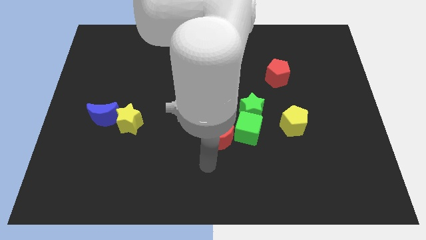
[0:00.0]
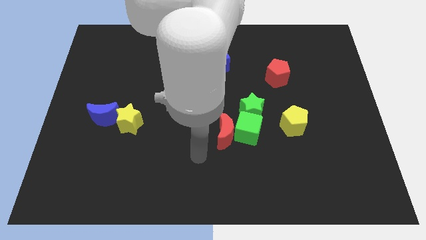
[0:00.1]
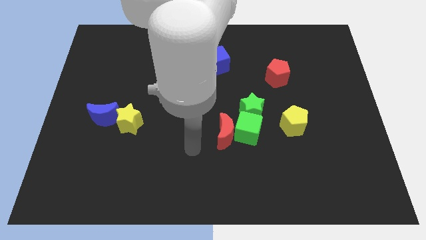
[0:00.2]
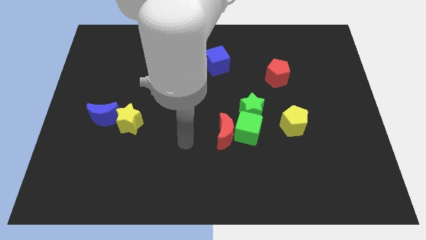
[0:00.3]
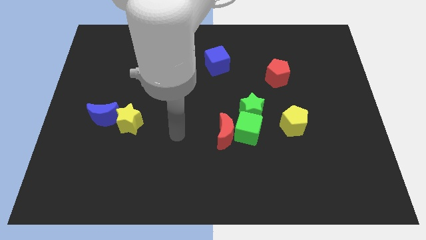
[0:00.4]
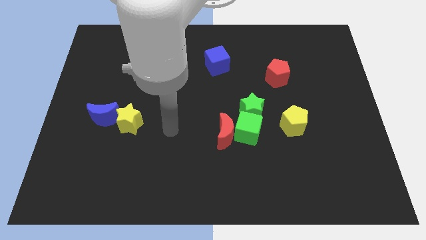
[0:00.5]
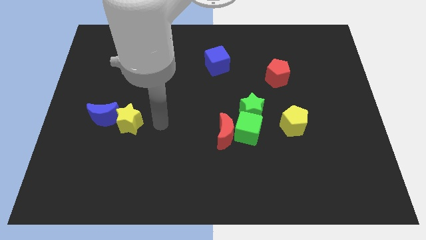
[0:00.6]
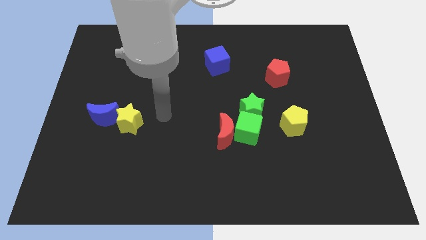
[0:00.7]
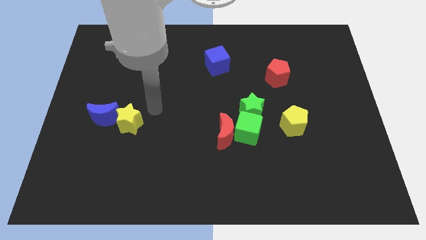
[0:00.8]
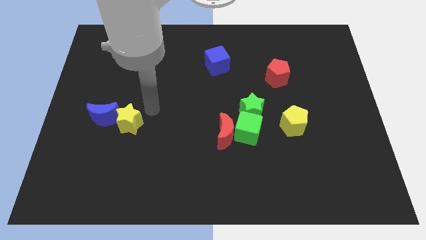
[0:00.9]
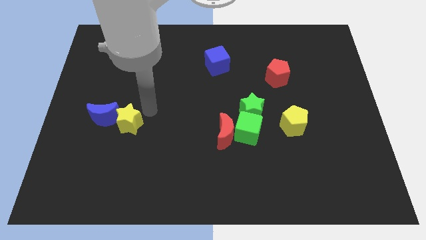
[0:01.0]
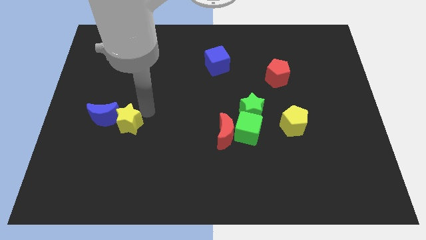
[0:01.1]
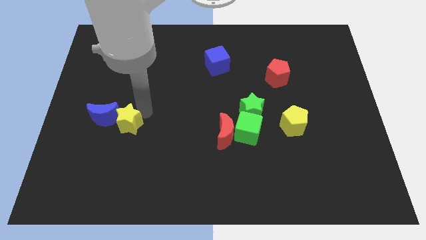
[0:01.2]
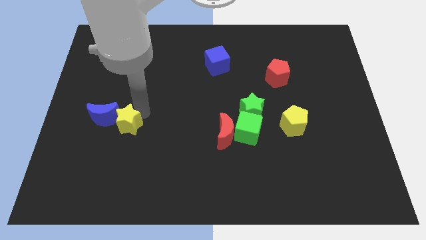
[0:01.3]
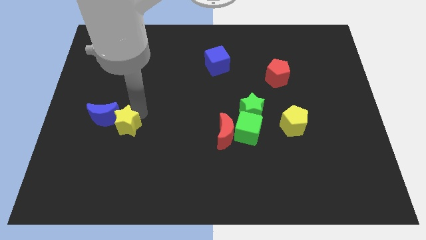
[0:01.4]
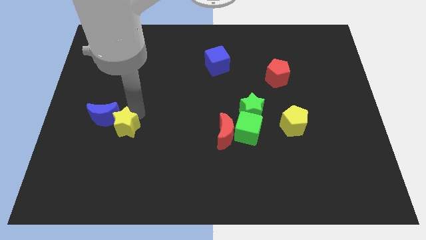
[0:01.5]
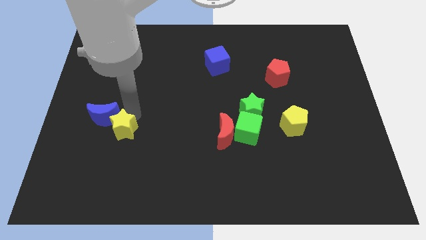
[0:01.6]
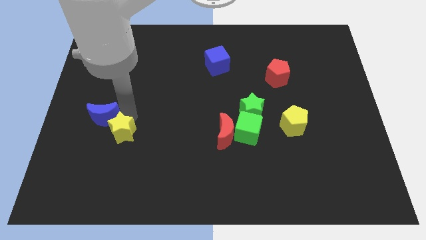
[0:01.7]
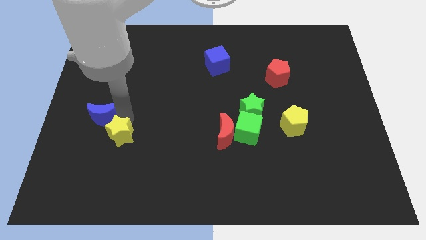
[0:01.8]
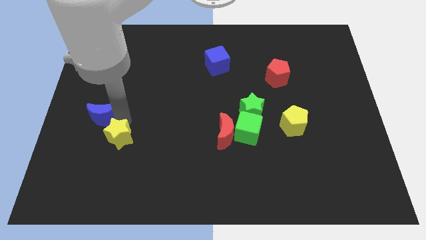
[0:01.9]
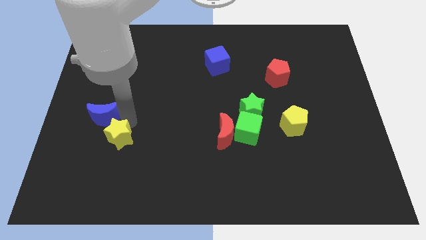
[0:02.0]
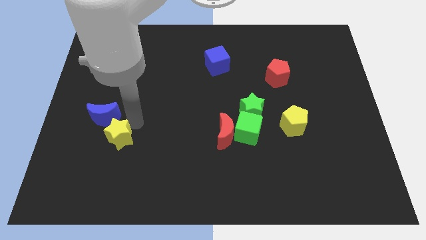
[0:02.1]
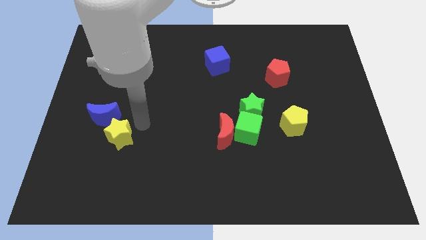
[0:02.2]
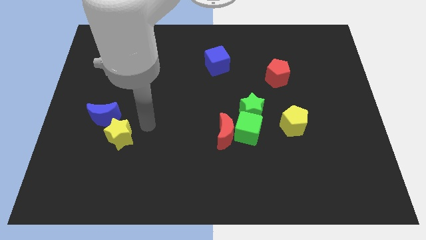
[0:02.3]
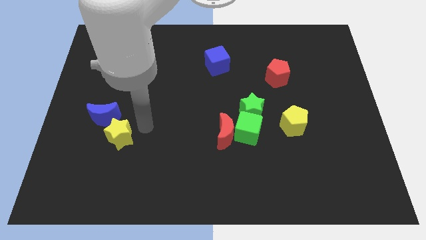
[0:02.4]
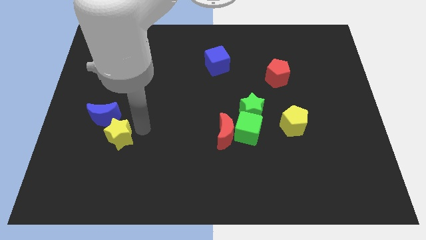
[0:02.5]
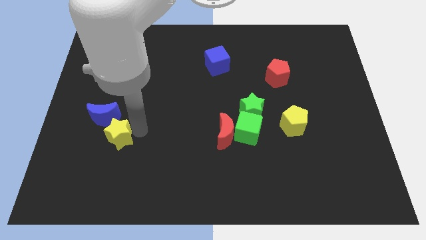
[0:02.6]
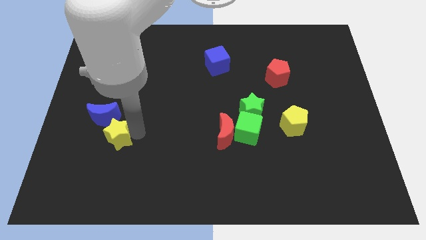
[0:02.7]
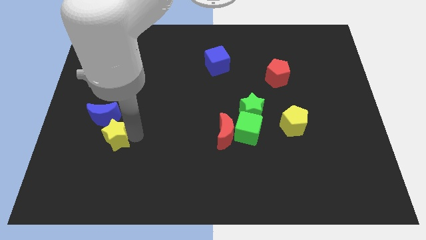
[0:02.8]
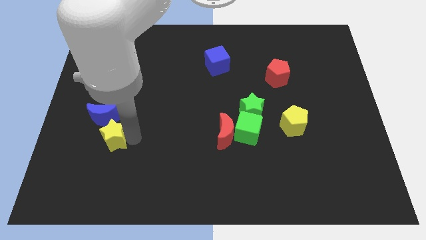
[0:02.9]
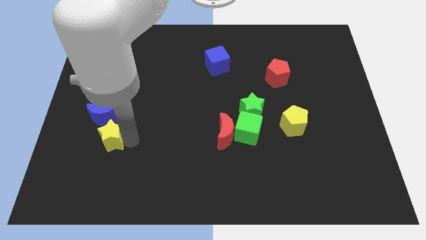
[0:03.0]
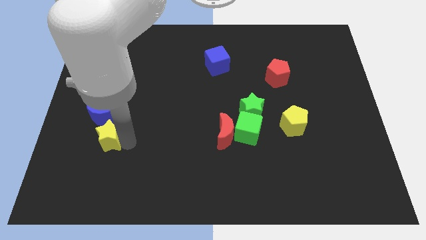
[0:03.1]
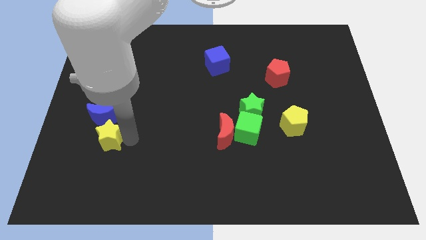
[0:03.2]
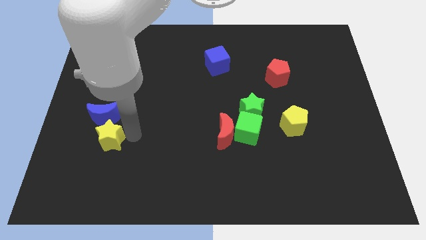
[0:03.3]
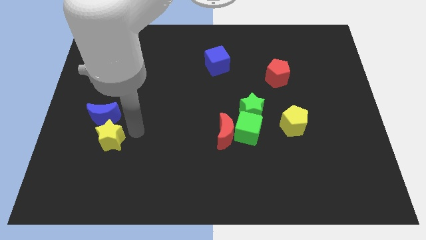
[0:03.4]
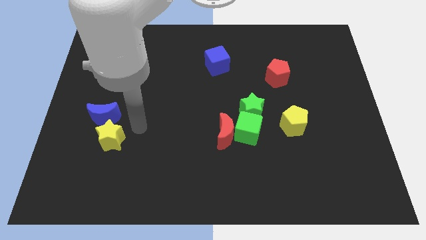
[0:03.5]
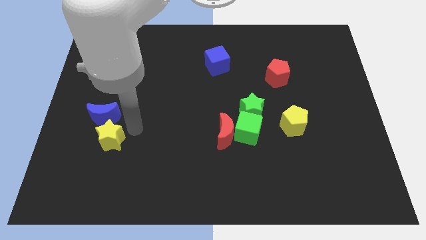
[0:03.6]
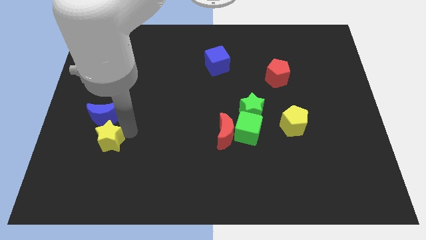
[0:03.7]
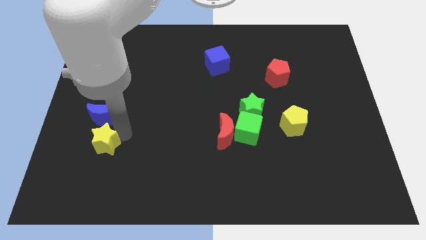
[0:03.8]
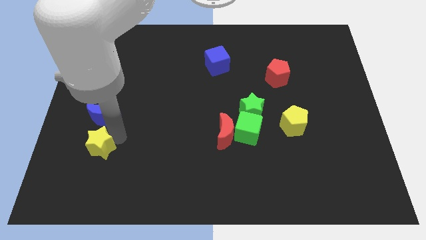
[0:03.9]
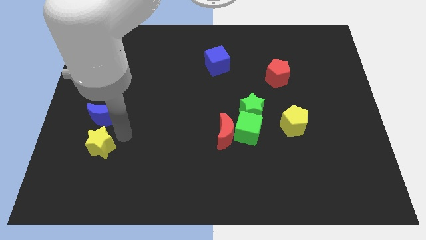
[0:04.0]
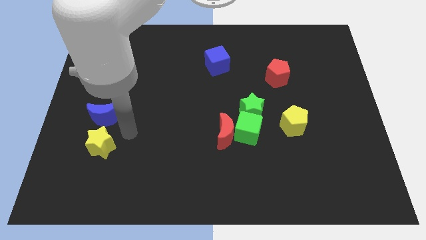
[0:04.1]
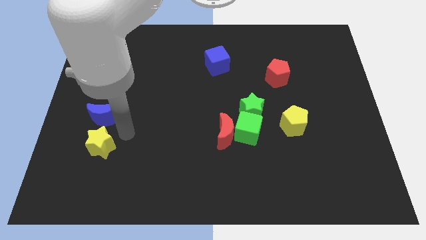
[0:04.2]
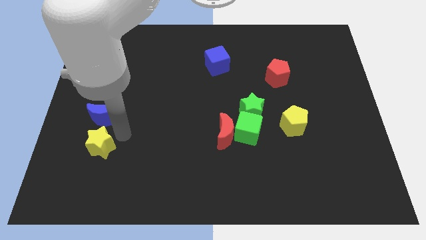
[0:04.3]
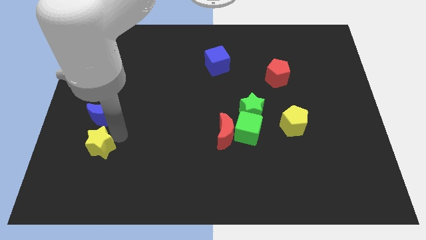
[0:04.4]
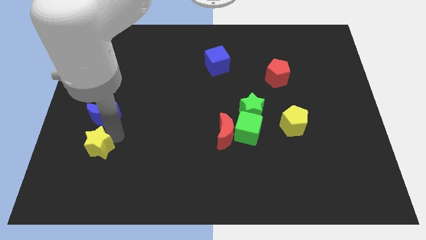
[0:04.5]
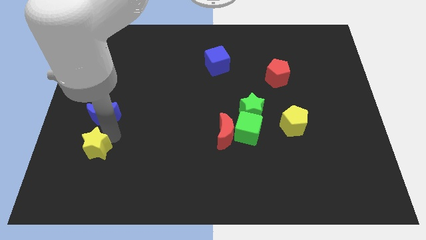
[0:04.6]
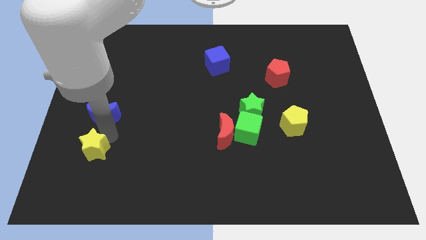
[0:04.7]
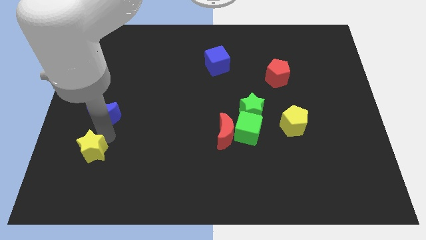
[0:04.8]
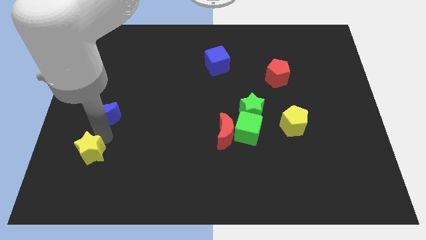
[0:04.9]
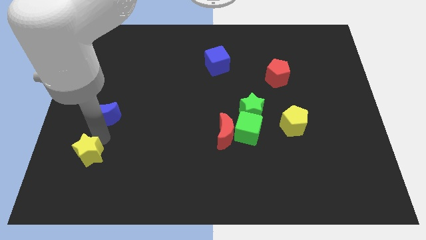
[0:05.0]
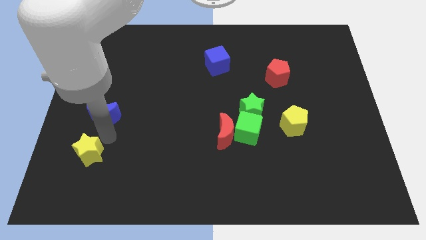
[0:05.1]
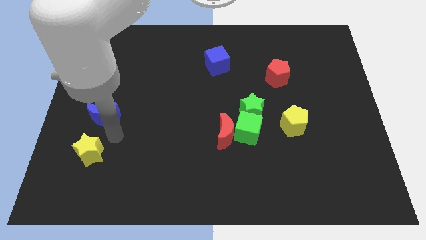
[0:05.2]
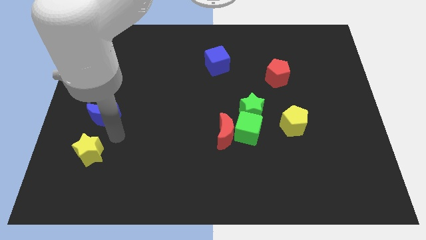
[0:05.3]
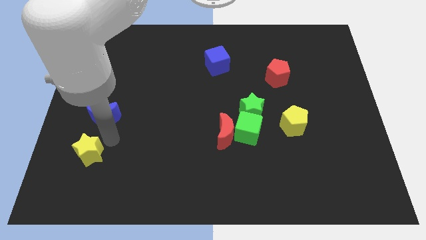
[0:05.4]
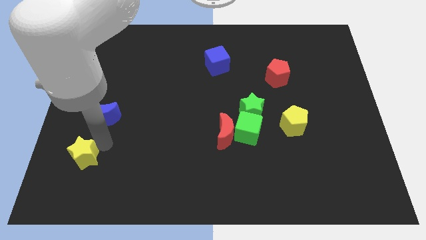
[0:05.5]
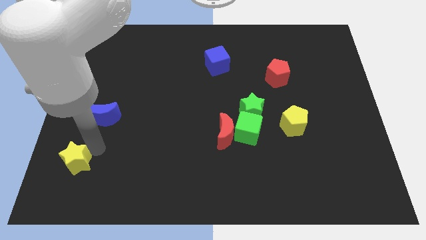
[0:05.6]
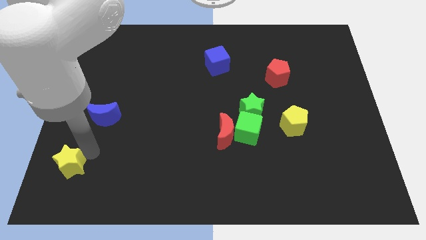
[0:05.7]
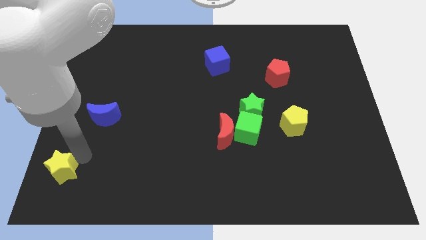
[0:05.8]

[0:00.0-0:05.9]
move the yellow star to the bottom left corner

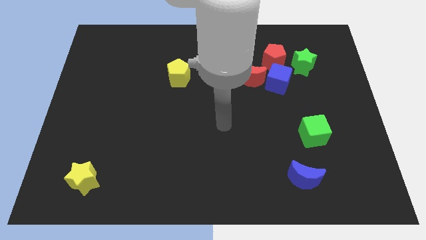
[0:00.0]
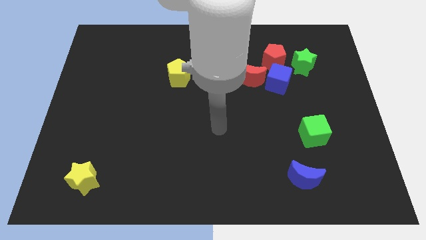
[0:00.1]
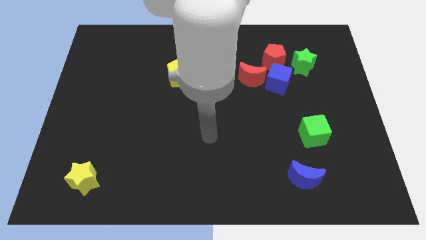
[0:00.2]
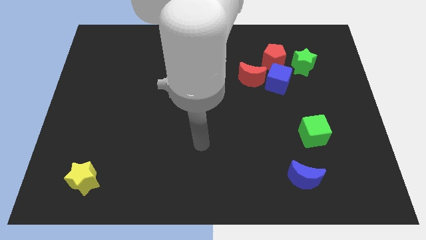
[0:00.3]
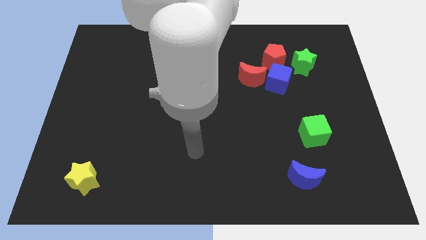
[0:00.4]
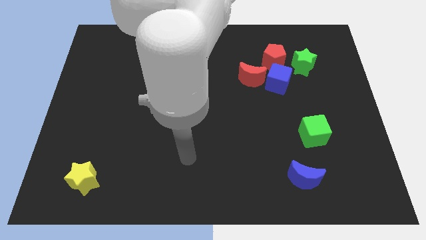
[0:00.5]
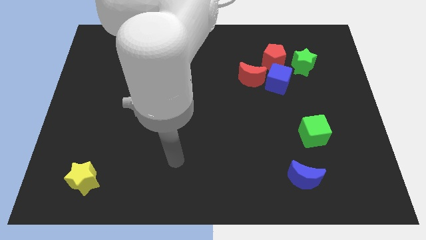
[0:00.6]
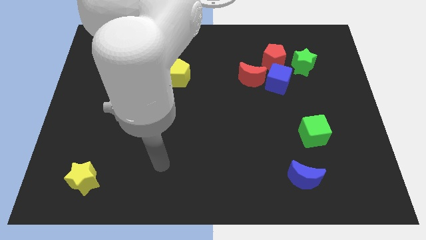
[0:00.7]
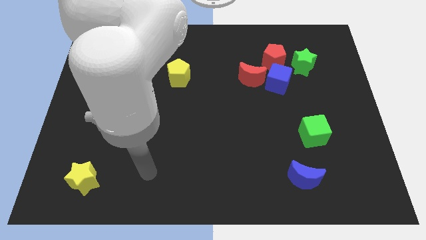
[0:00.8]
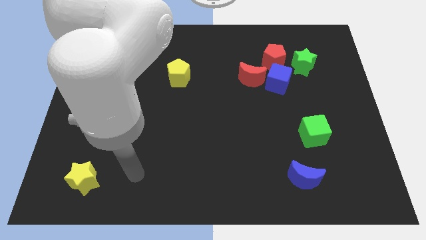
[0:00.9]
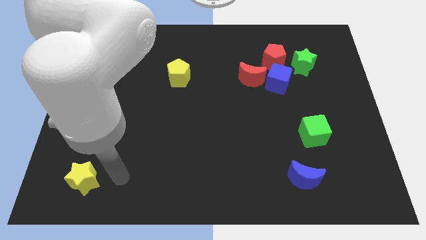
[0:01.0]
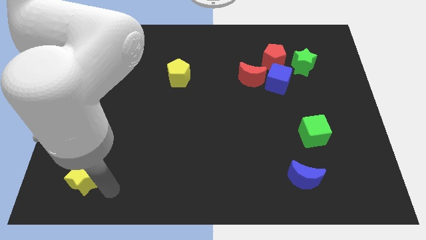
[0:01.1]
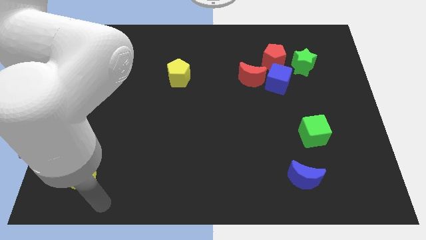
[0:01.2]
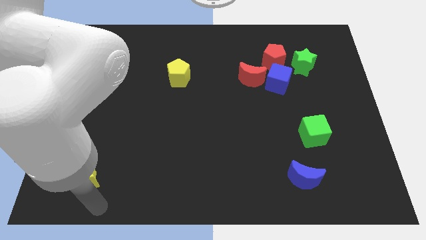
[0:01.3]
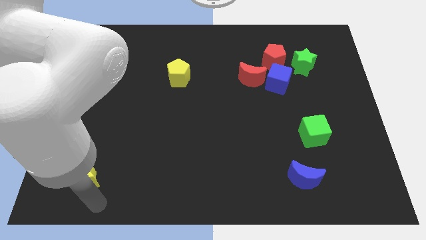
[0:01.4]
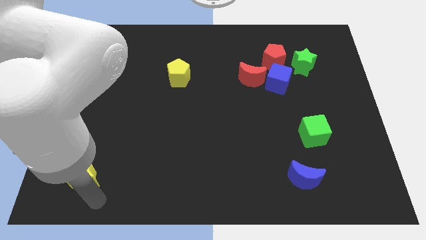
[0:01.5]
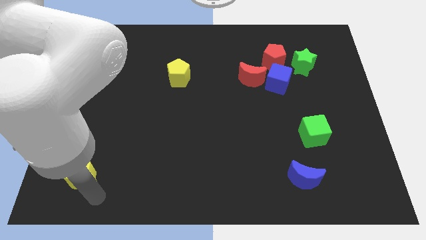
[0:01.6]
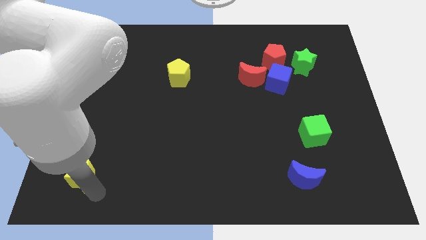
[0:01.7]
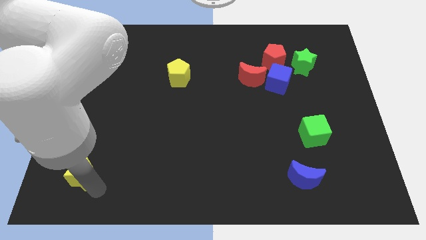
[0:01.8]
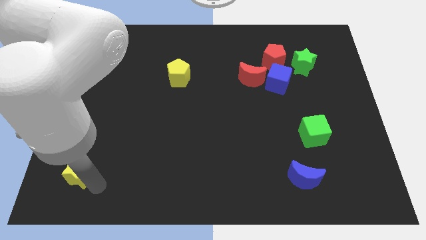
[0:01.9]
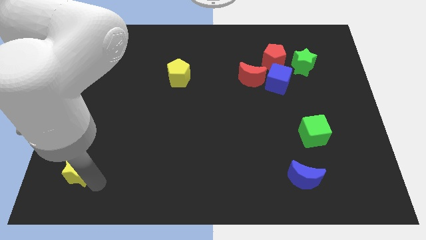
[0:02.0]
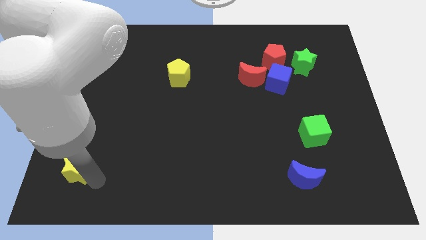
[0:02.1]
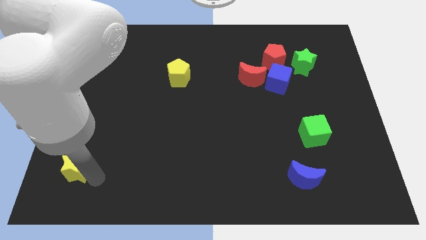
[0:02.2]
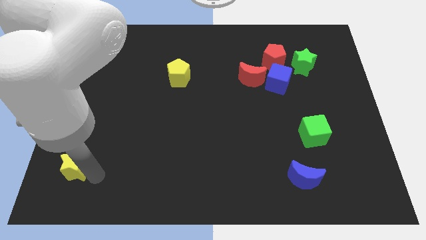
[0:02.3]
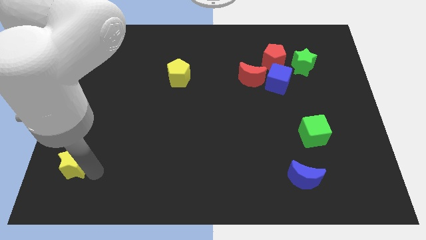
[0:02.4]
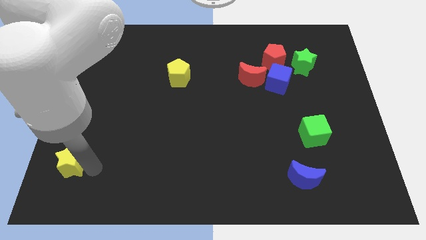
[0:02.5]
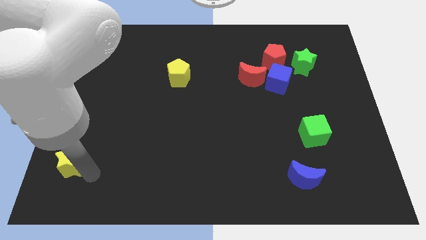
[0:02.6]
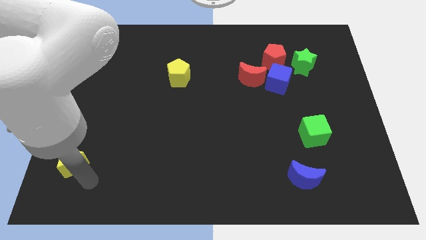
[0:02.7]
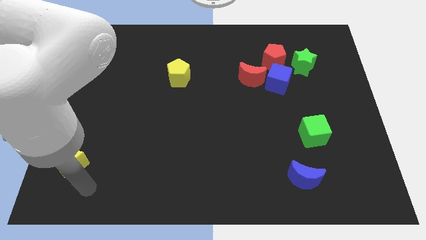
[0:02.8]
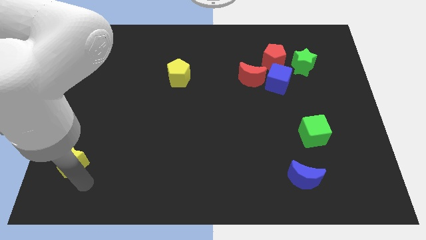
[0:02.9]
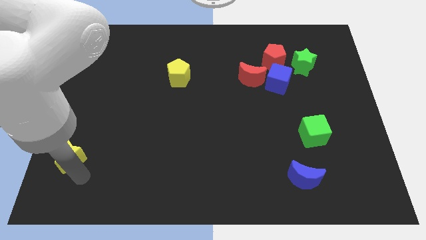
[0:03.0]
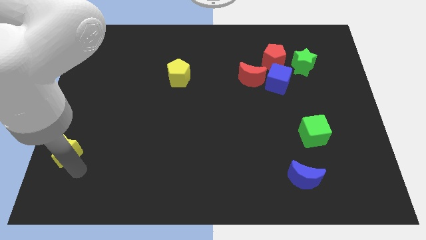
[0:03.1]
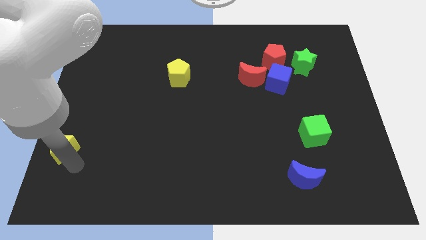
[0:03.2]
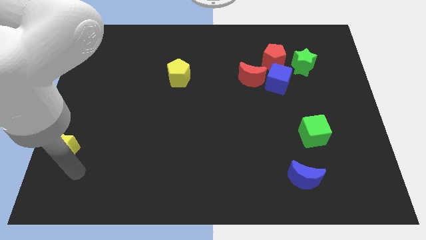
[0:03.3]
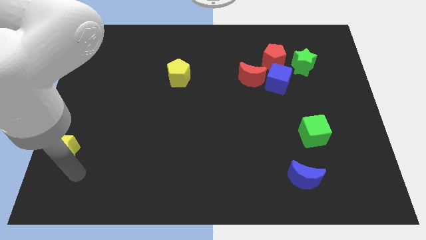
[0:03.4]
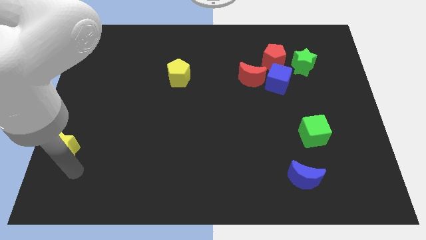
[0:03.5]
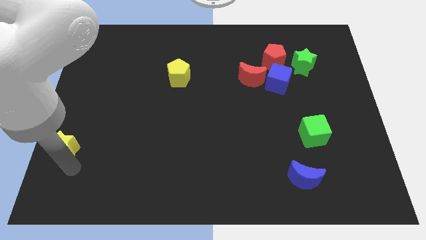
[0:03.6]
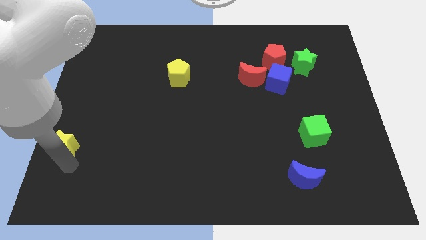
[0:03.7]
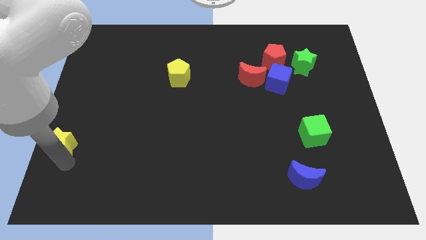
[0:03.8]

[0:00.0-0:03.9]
put the yellow star to the center left
